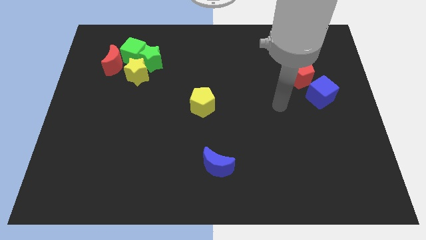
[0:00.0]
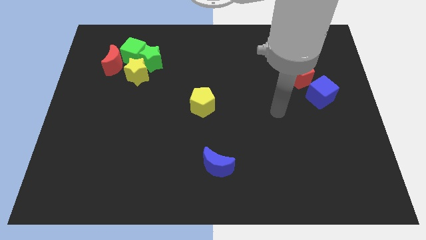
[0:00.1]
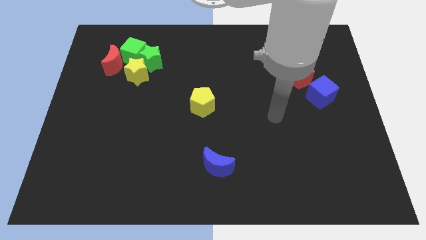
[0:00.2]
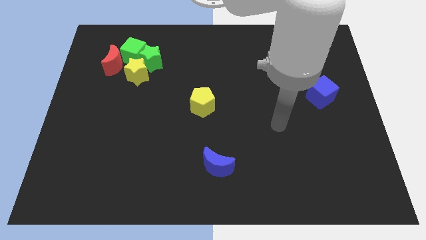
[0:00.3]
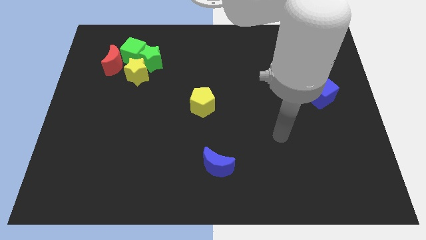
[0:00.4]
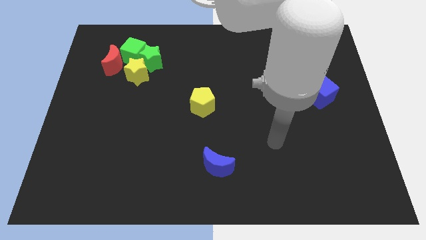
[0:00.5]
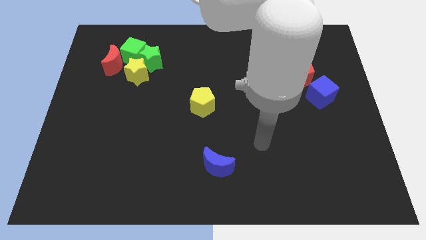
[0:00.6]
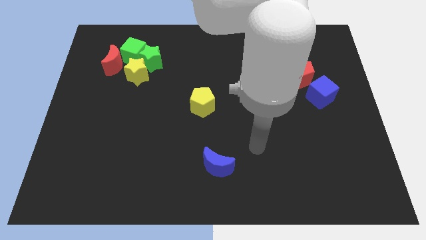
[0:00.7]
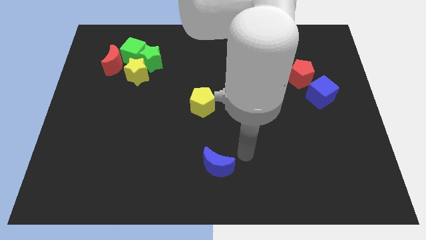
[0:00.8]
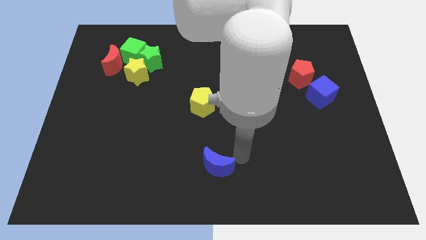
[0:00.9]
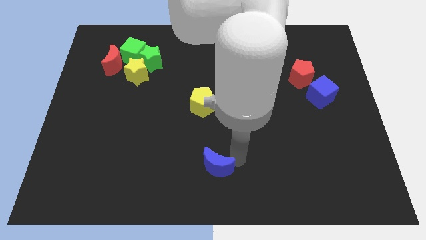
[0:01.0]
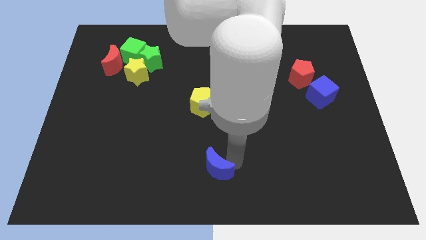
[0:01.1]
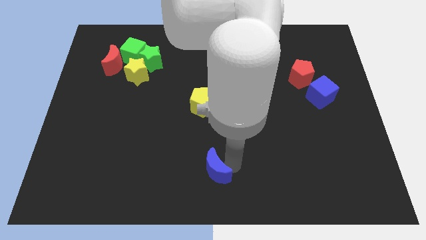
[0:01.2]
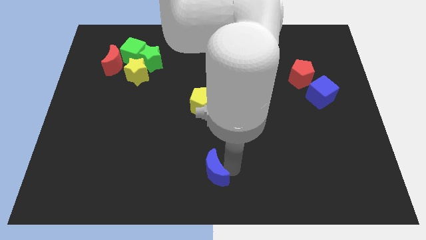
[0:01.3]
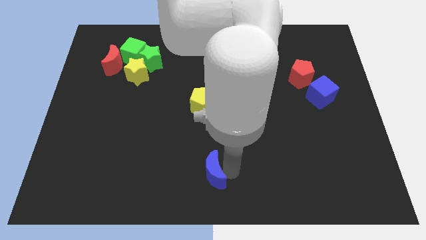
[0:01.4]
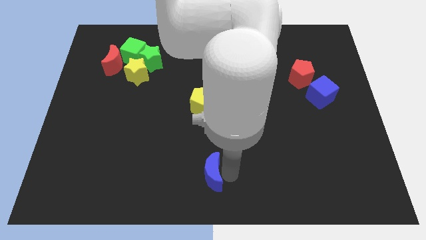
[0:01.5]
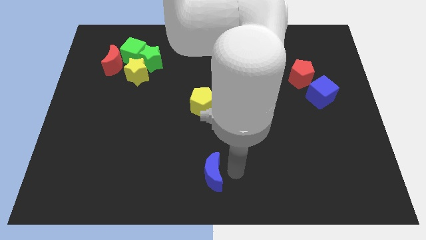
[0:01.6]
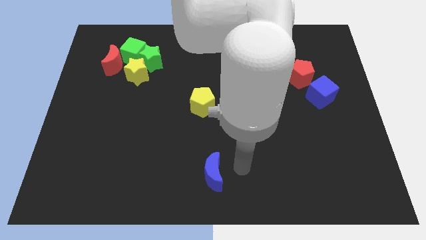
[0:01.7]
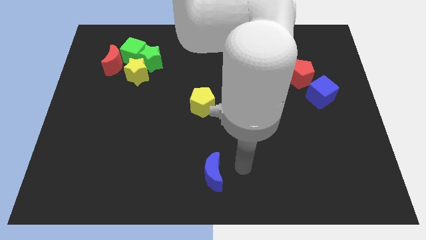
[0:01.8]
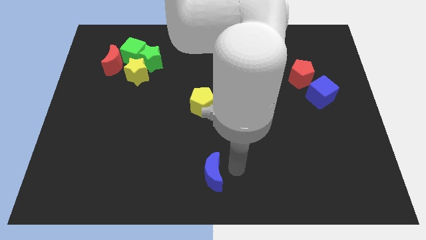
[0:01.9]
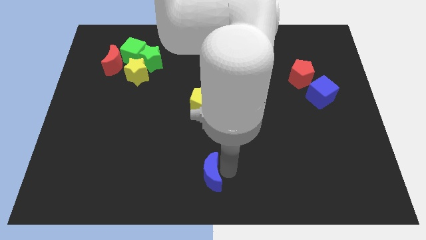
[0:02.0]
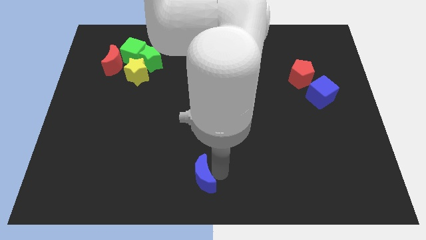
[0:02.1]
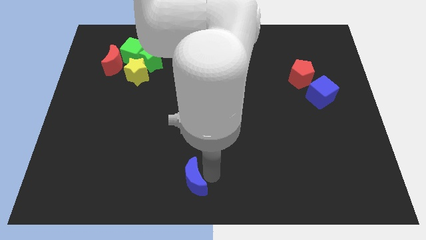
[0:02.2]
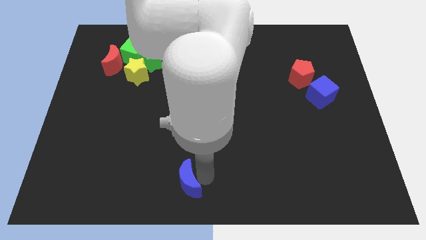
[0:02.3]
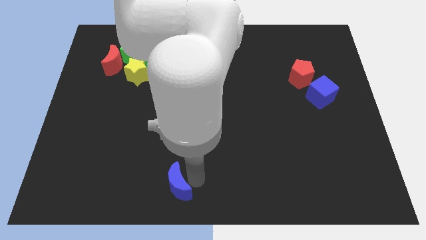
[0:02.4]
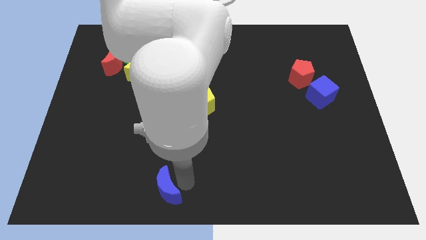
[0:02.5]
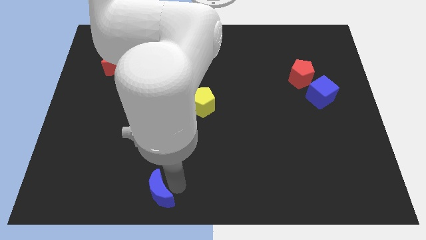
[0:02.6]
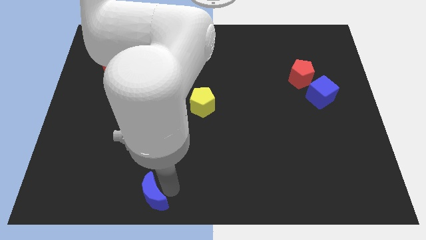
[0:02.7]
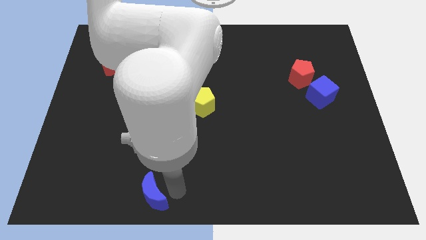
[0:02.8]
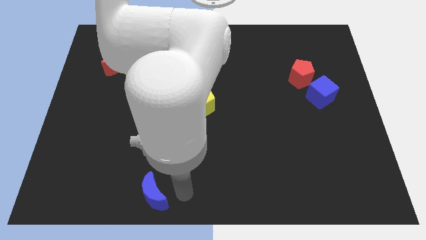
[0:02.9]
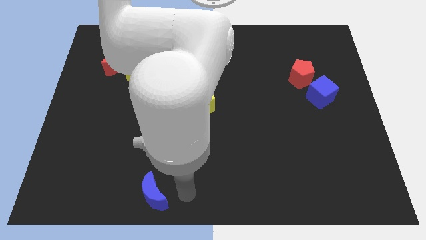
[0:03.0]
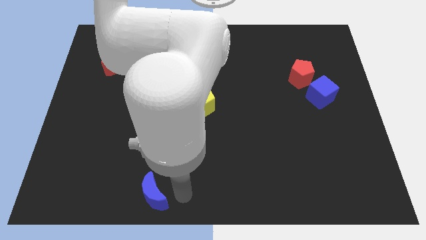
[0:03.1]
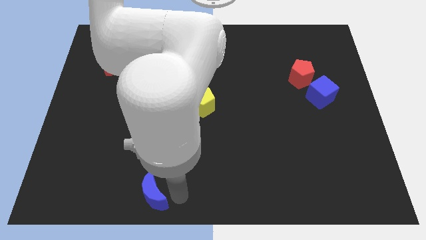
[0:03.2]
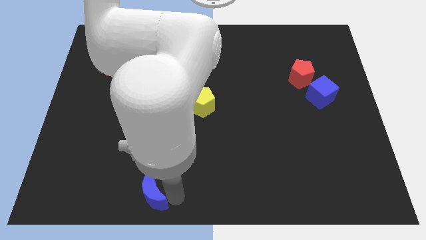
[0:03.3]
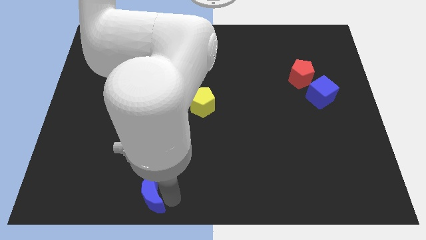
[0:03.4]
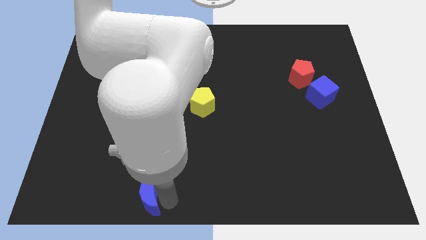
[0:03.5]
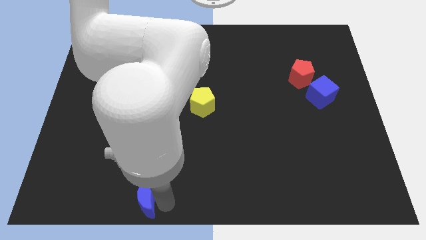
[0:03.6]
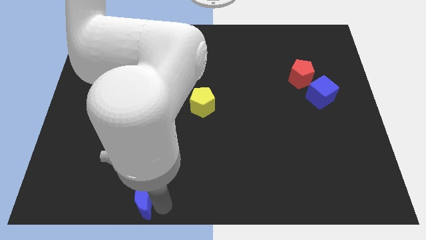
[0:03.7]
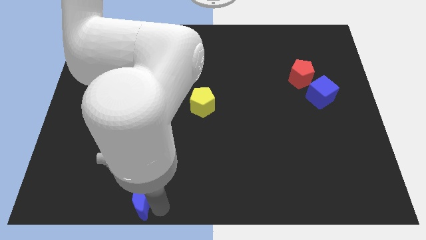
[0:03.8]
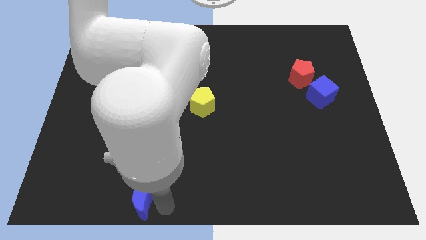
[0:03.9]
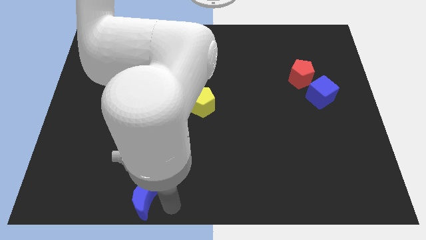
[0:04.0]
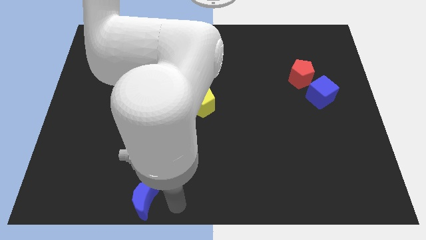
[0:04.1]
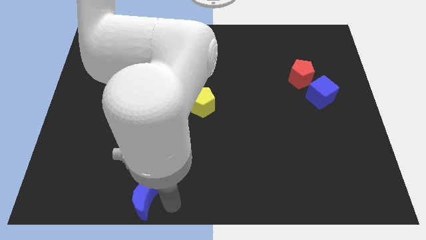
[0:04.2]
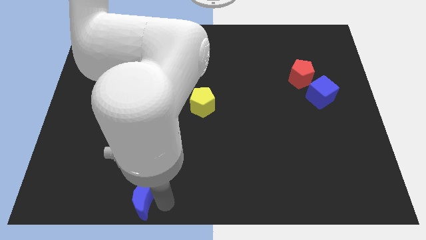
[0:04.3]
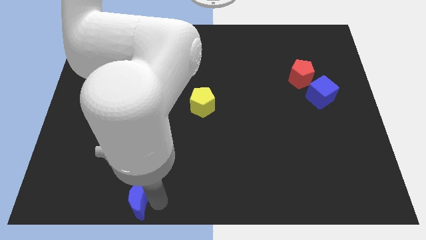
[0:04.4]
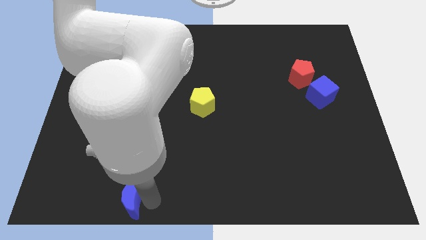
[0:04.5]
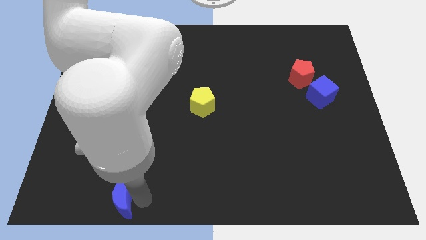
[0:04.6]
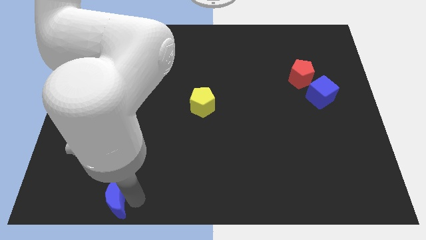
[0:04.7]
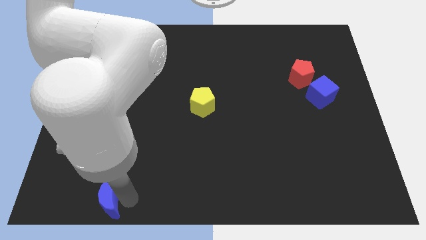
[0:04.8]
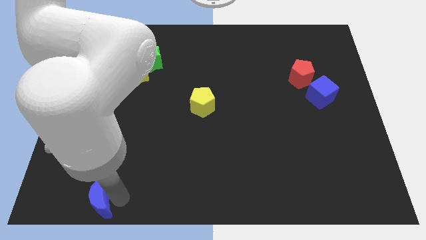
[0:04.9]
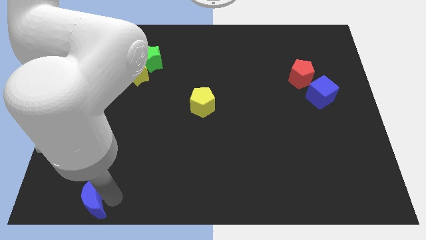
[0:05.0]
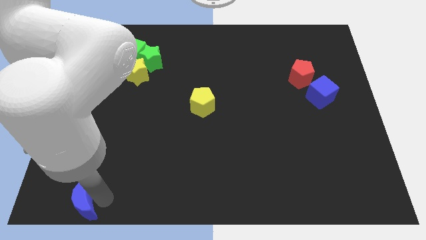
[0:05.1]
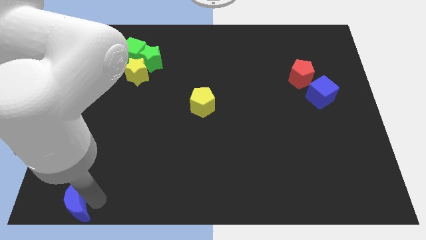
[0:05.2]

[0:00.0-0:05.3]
slide the blue moon to the bottom left corner
